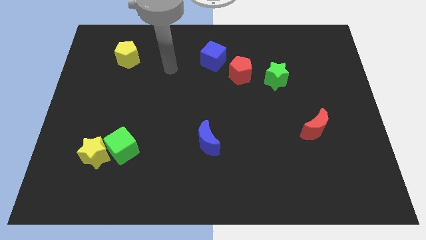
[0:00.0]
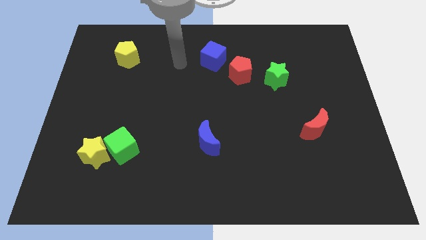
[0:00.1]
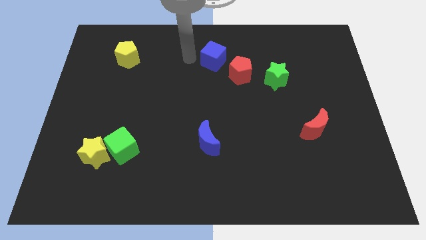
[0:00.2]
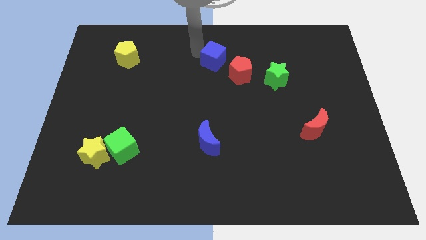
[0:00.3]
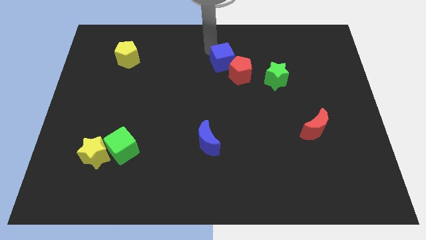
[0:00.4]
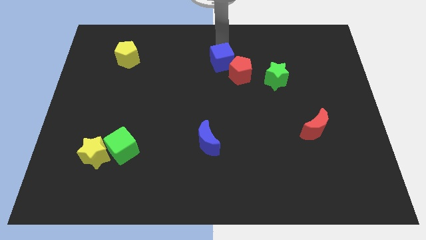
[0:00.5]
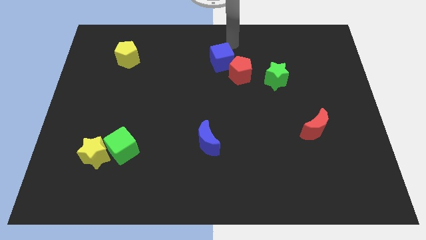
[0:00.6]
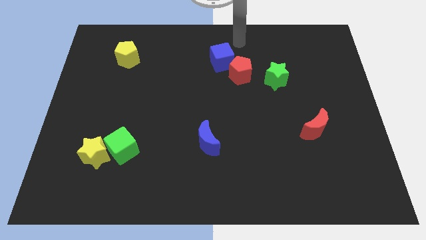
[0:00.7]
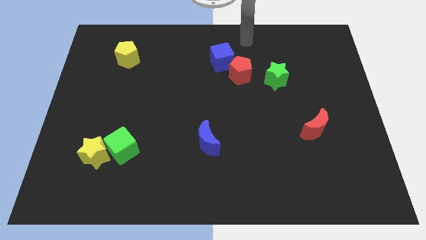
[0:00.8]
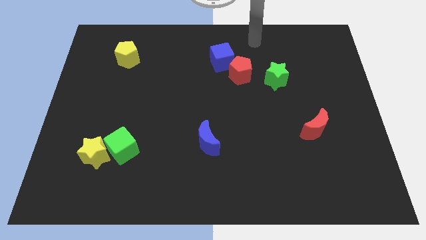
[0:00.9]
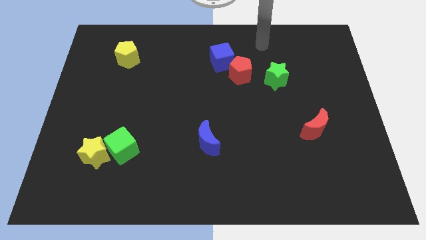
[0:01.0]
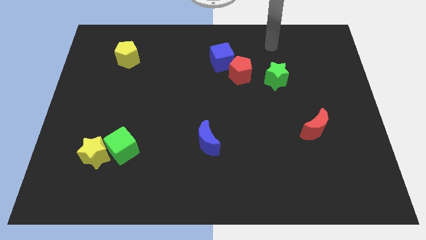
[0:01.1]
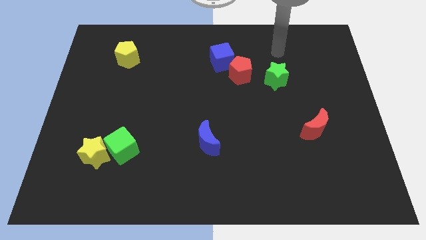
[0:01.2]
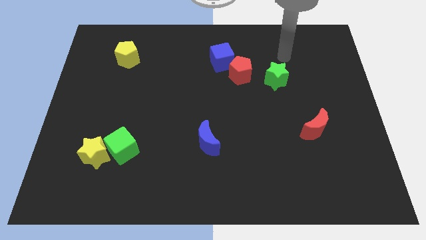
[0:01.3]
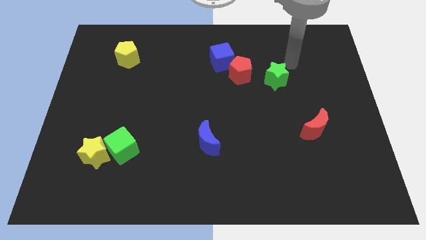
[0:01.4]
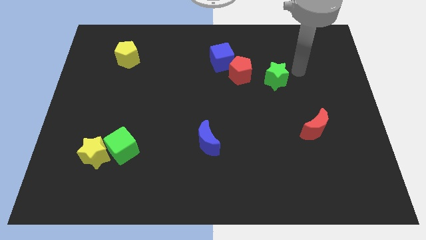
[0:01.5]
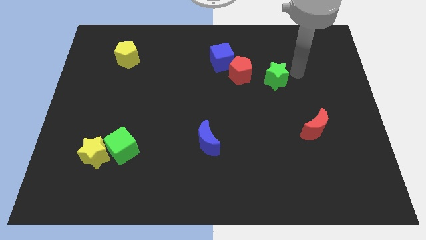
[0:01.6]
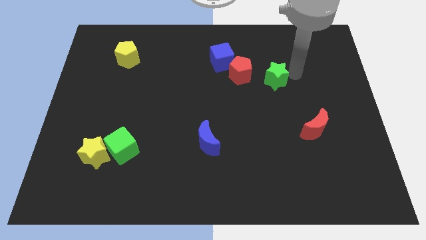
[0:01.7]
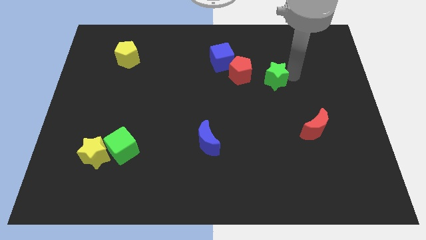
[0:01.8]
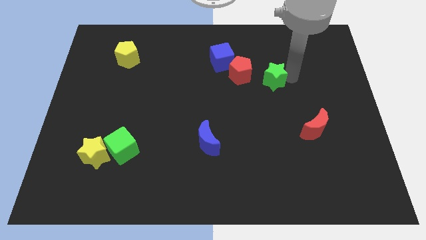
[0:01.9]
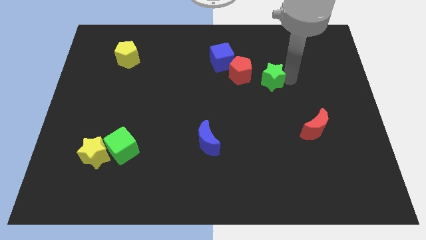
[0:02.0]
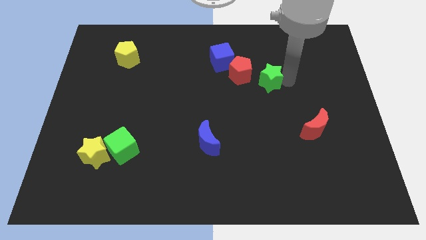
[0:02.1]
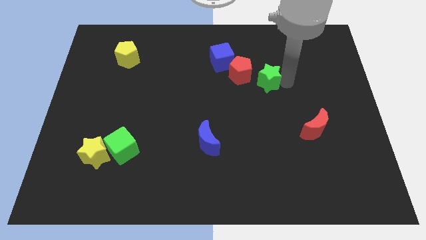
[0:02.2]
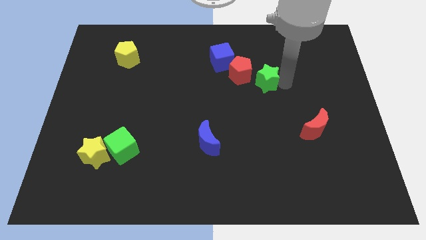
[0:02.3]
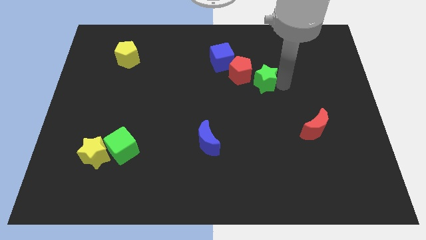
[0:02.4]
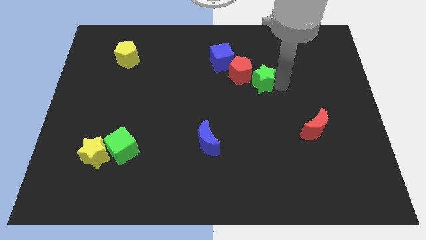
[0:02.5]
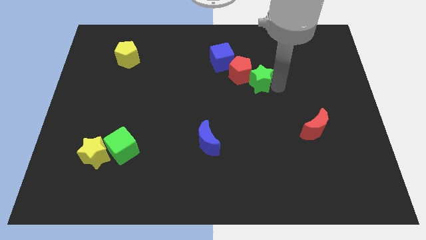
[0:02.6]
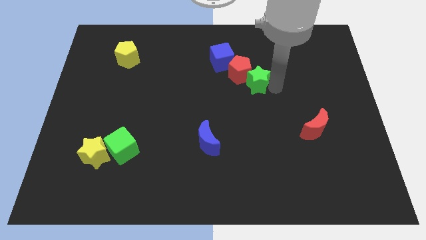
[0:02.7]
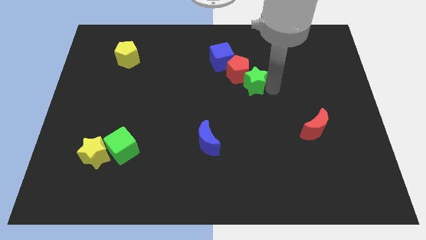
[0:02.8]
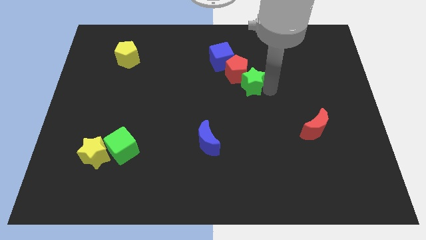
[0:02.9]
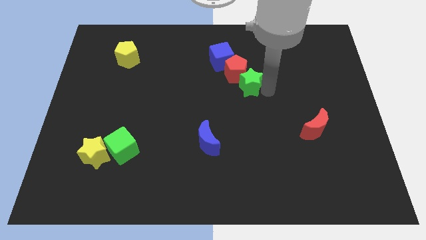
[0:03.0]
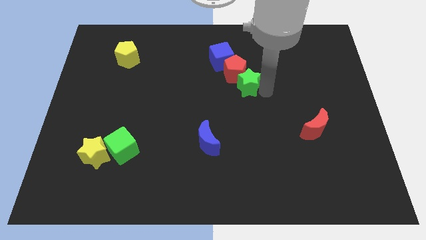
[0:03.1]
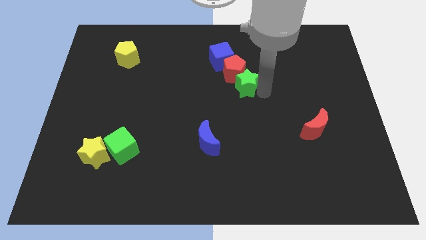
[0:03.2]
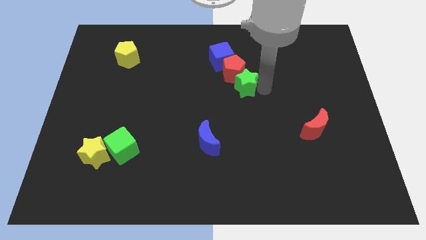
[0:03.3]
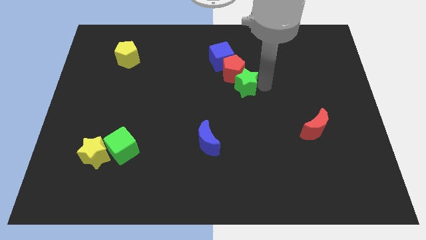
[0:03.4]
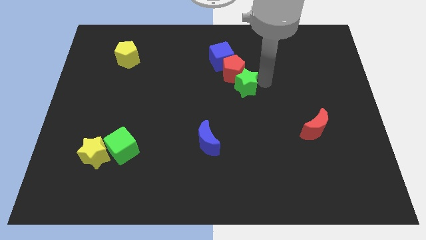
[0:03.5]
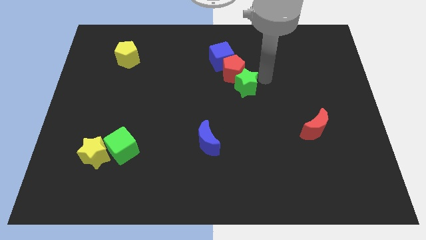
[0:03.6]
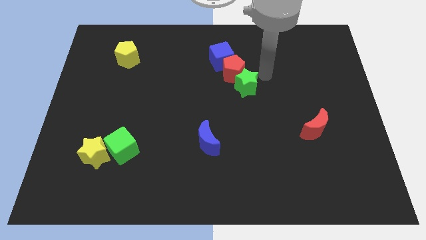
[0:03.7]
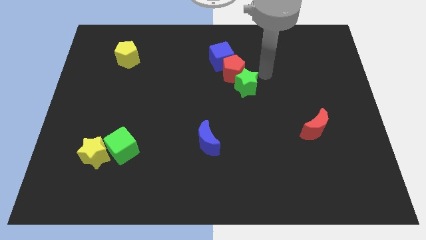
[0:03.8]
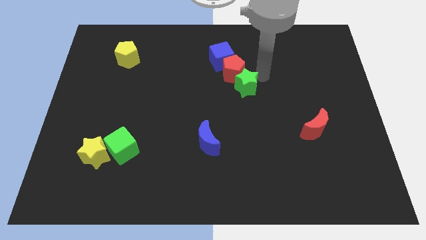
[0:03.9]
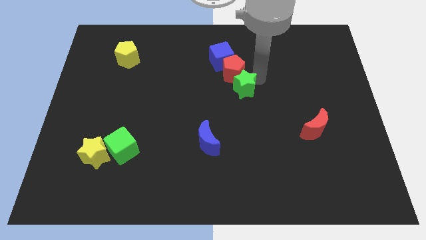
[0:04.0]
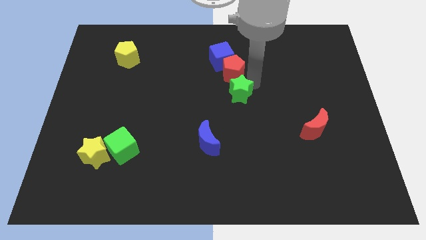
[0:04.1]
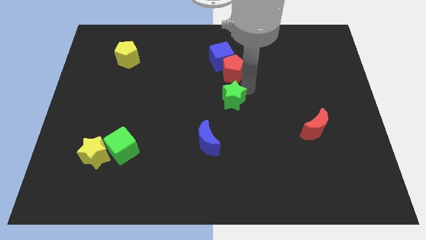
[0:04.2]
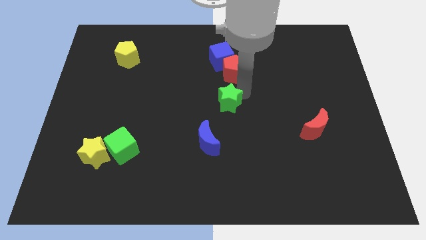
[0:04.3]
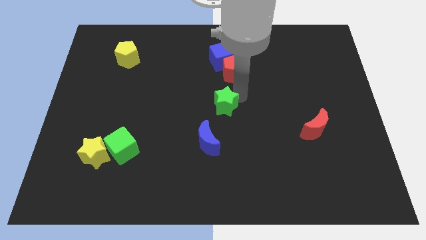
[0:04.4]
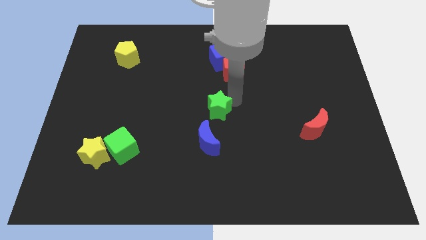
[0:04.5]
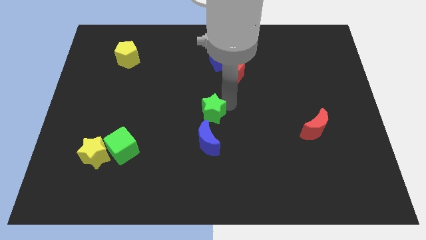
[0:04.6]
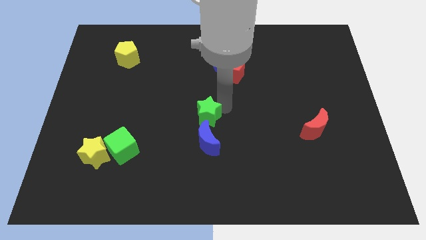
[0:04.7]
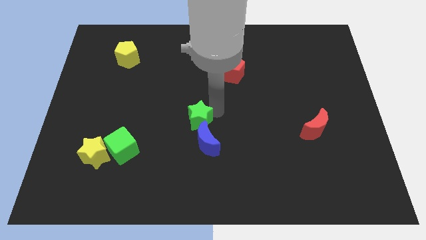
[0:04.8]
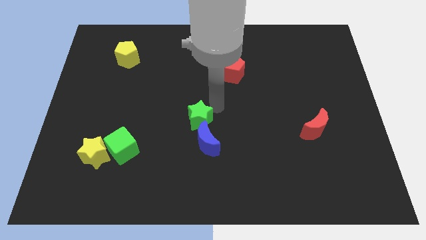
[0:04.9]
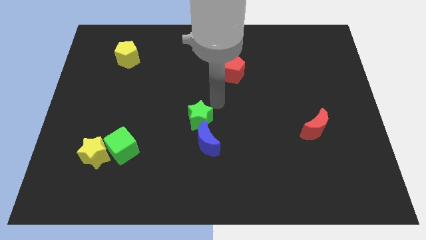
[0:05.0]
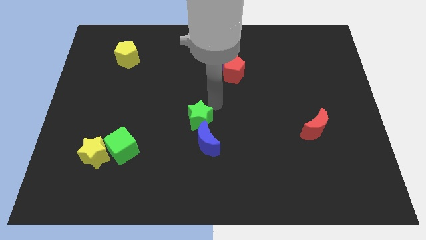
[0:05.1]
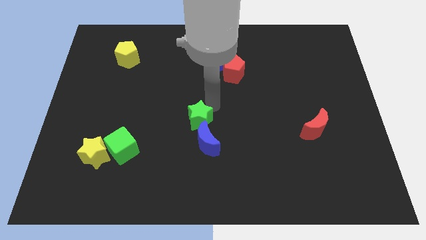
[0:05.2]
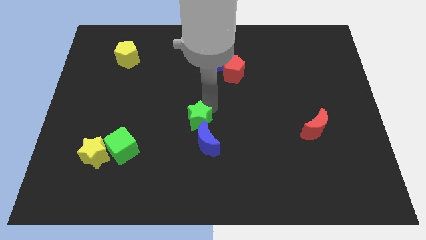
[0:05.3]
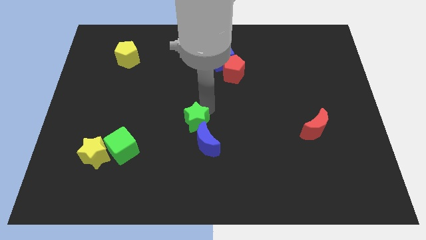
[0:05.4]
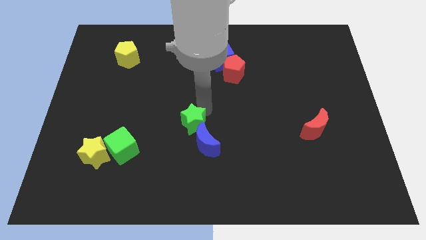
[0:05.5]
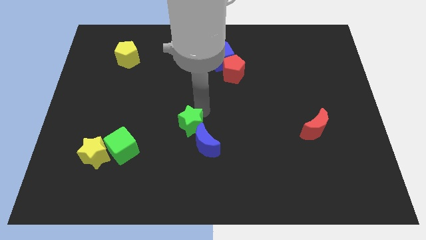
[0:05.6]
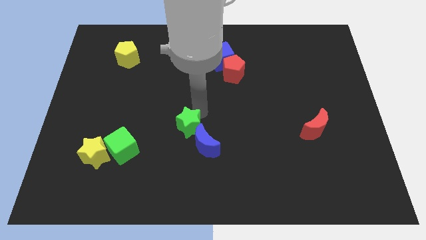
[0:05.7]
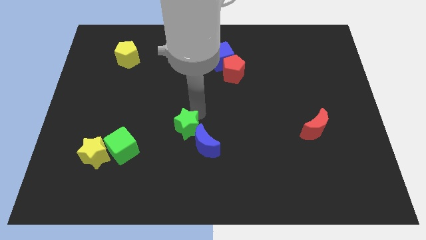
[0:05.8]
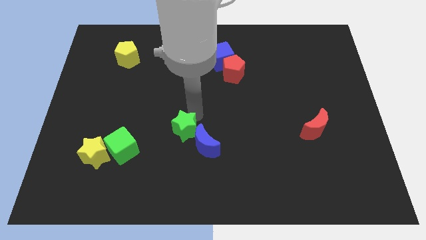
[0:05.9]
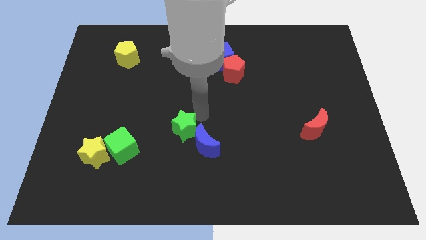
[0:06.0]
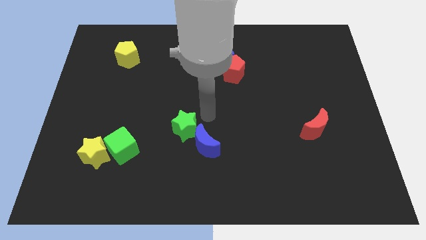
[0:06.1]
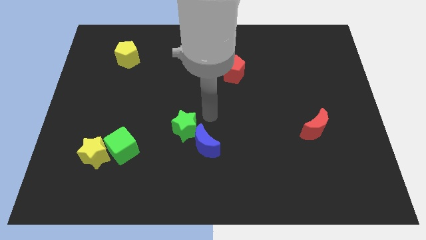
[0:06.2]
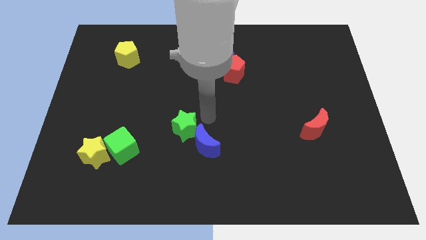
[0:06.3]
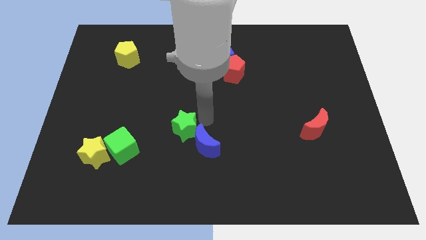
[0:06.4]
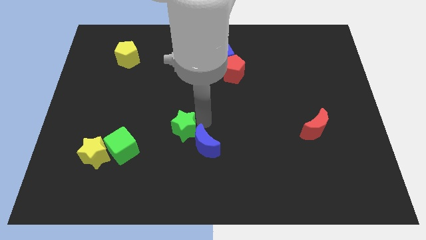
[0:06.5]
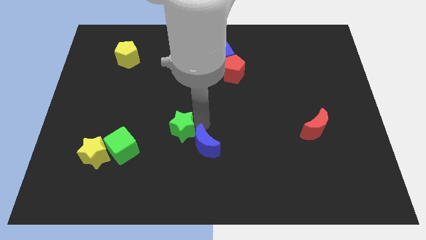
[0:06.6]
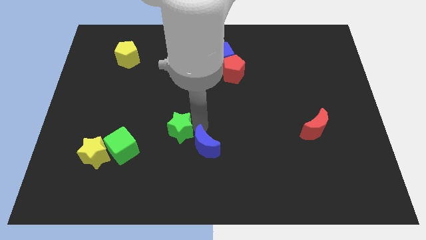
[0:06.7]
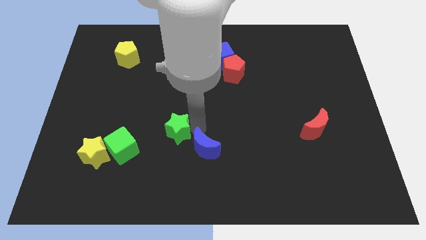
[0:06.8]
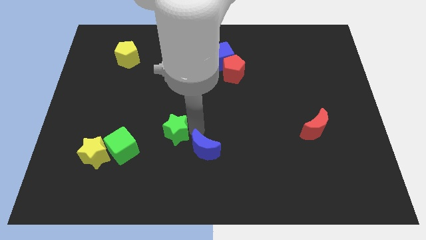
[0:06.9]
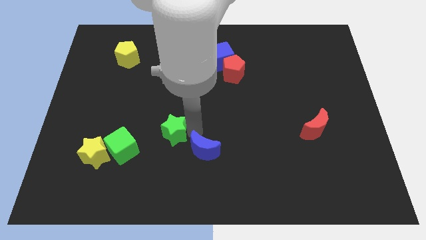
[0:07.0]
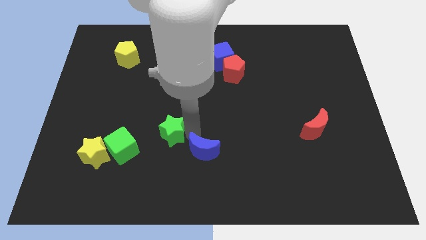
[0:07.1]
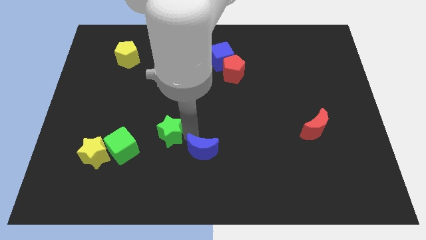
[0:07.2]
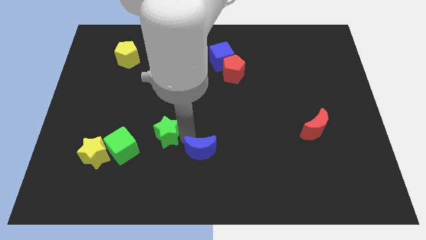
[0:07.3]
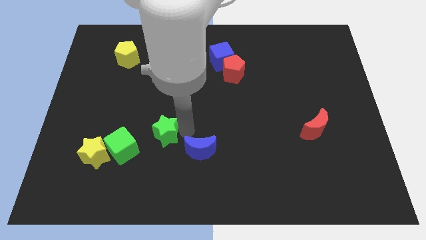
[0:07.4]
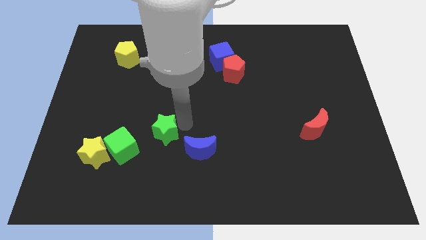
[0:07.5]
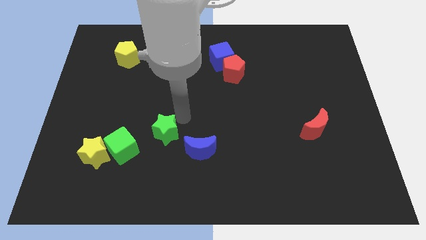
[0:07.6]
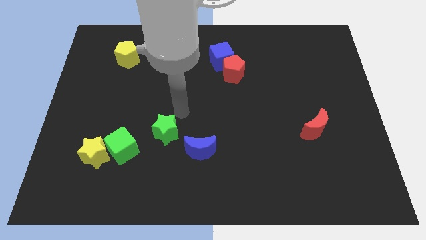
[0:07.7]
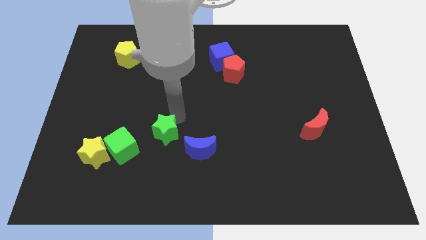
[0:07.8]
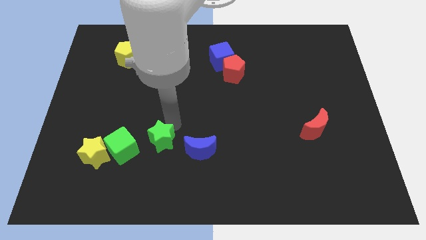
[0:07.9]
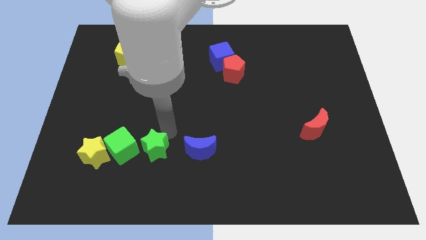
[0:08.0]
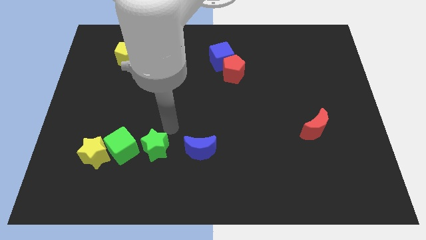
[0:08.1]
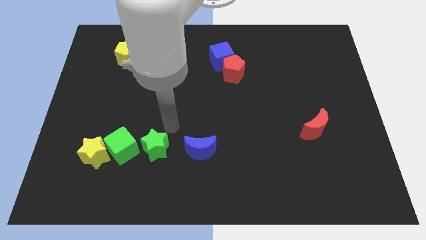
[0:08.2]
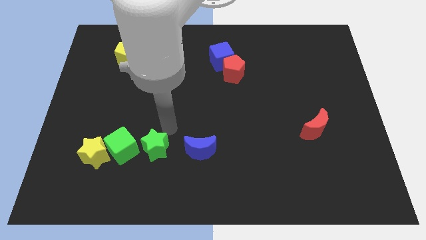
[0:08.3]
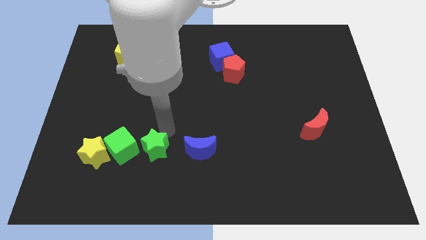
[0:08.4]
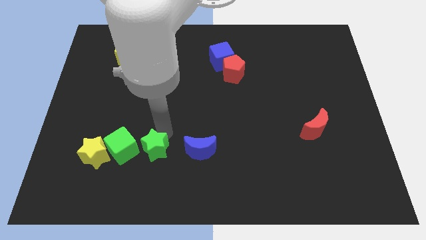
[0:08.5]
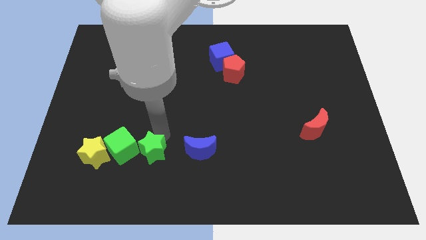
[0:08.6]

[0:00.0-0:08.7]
push the green star to the bottom right side of the green cube
